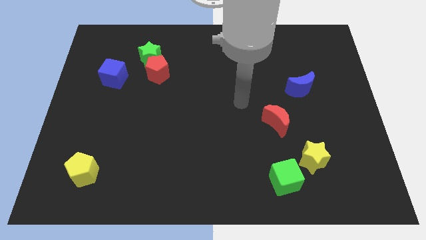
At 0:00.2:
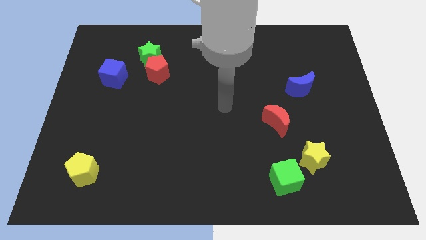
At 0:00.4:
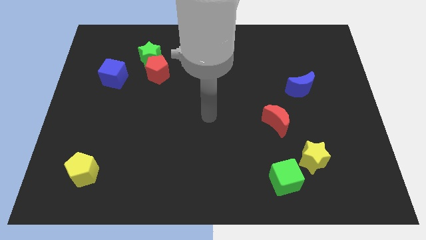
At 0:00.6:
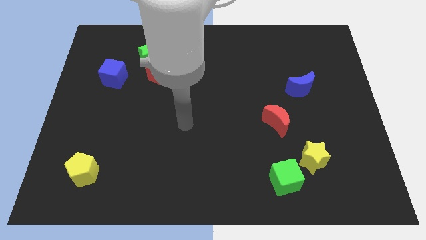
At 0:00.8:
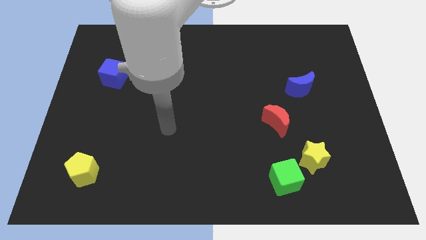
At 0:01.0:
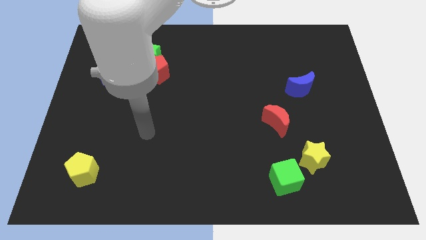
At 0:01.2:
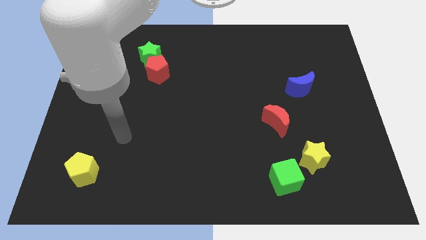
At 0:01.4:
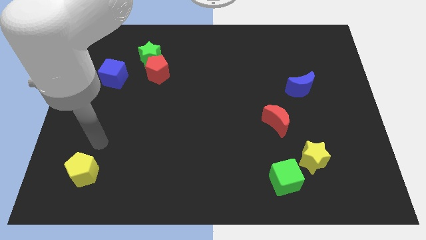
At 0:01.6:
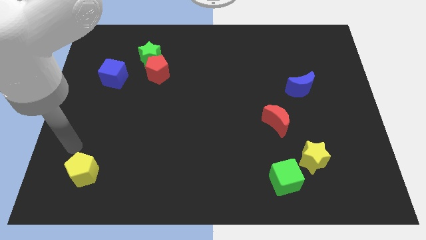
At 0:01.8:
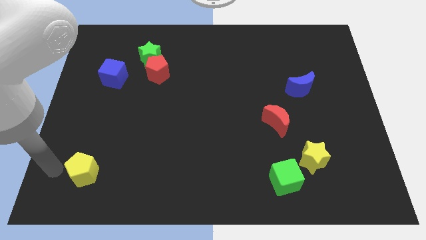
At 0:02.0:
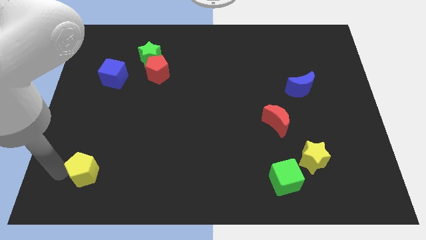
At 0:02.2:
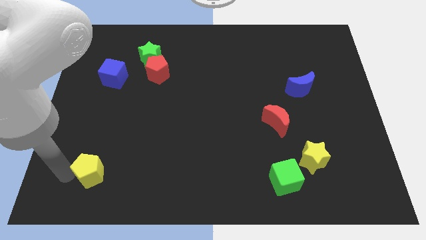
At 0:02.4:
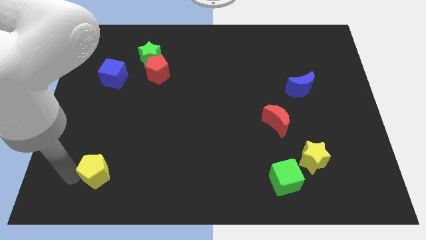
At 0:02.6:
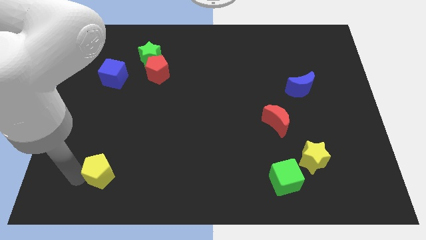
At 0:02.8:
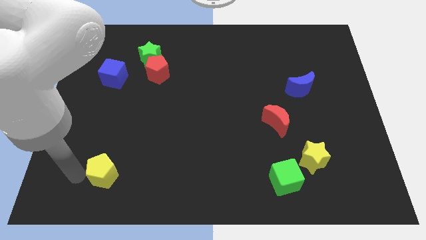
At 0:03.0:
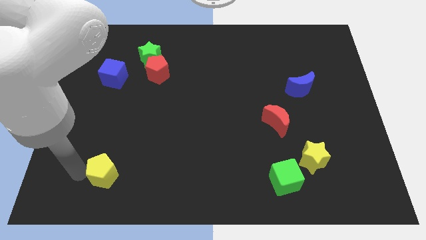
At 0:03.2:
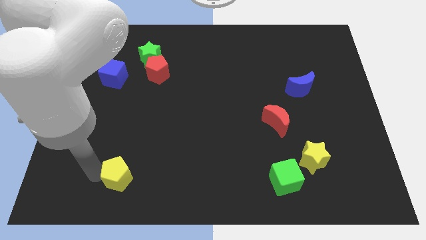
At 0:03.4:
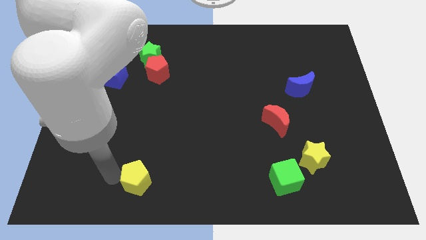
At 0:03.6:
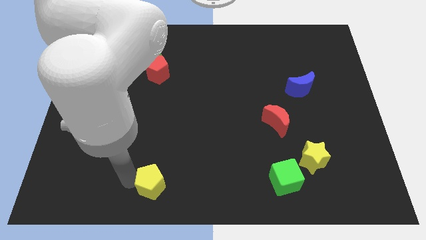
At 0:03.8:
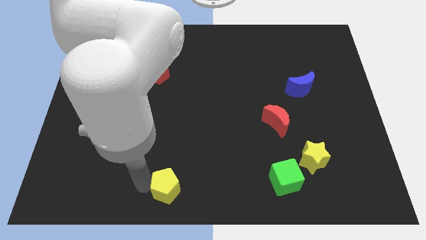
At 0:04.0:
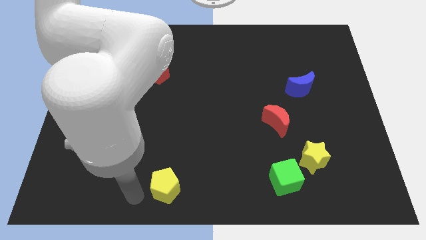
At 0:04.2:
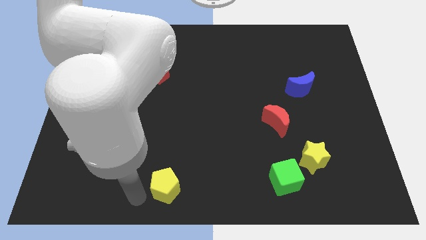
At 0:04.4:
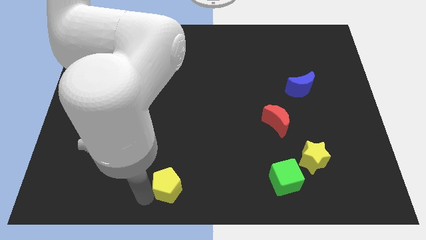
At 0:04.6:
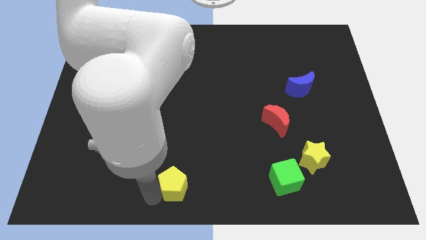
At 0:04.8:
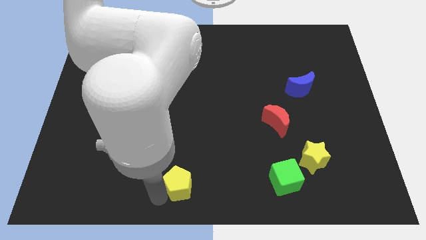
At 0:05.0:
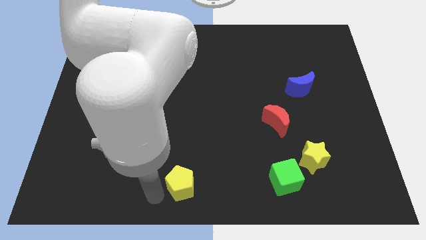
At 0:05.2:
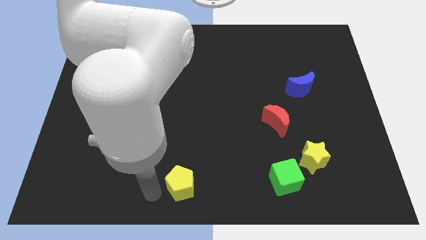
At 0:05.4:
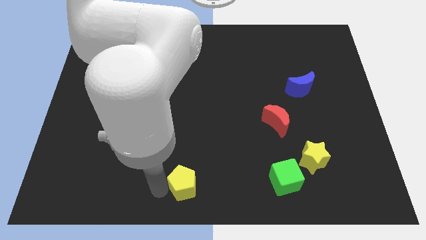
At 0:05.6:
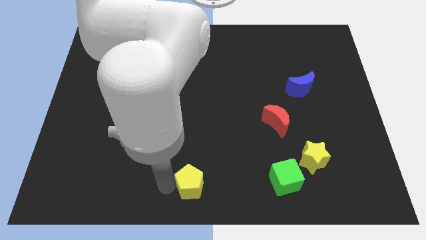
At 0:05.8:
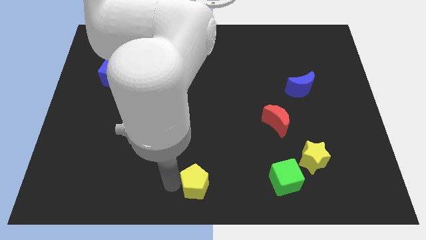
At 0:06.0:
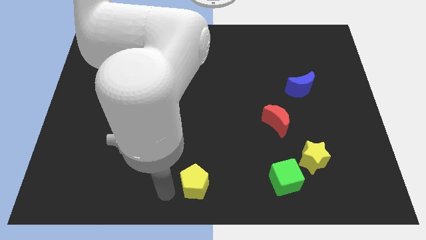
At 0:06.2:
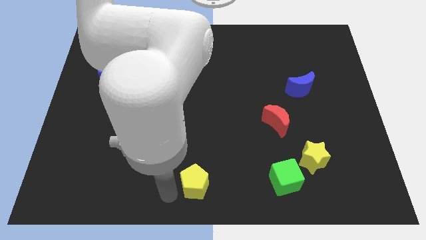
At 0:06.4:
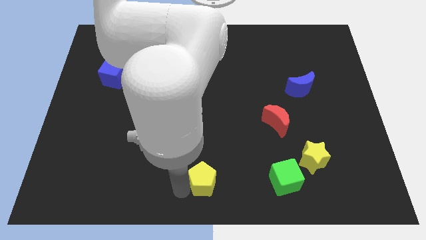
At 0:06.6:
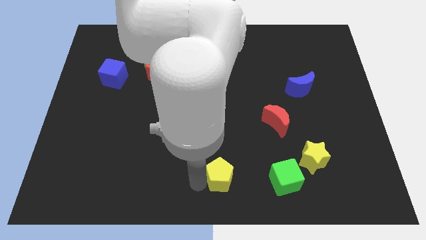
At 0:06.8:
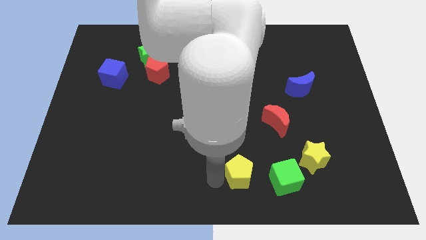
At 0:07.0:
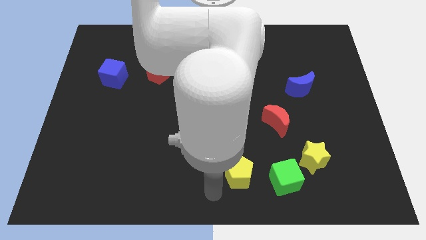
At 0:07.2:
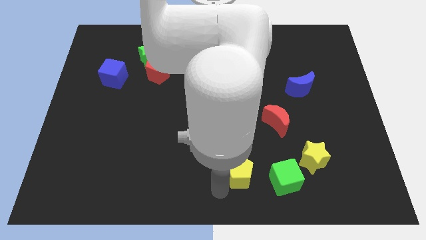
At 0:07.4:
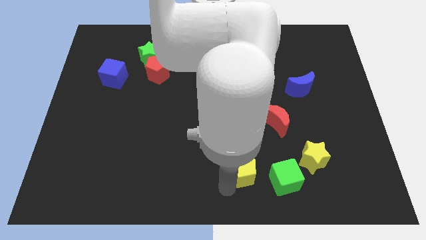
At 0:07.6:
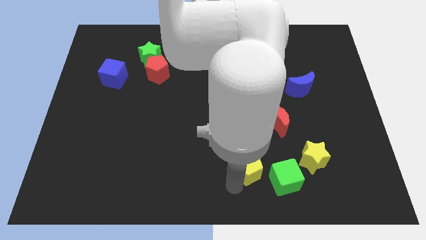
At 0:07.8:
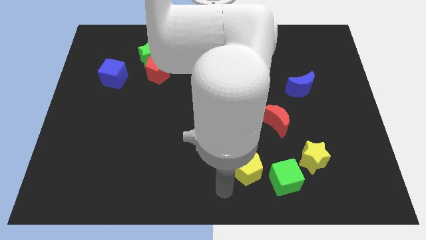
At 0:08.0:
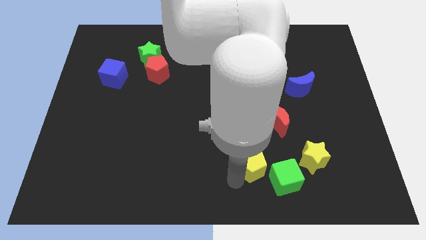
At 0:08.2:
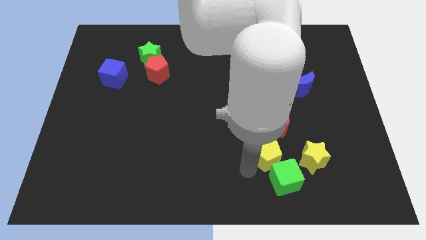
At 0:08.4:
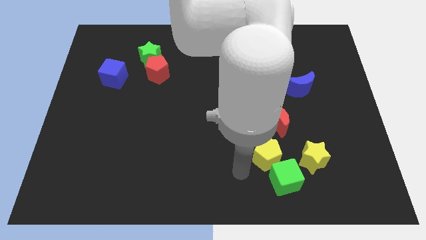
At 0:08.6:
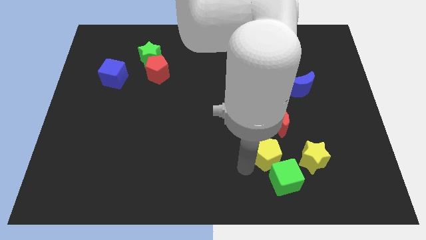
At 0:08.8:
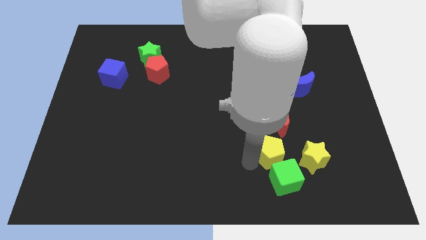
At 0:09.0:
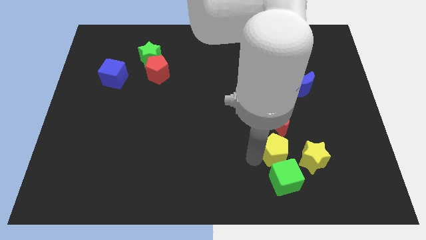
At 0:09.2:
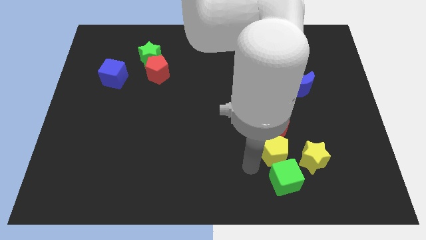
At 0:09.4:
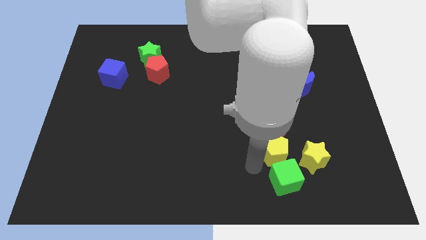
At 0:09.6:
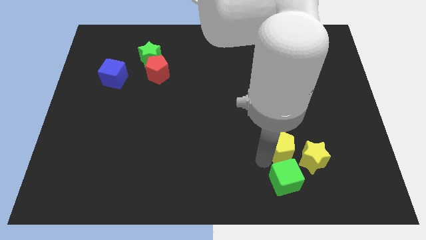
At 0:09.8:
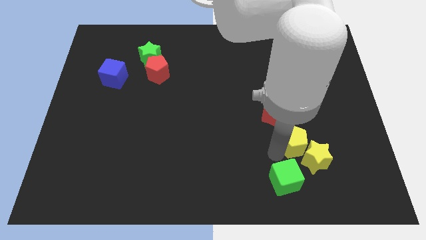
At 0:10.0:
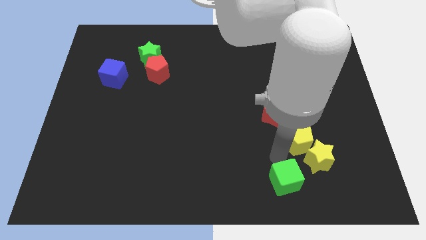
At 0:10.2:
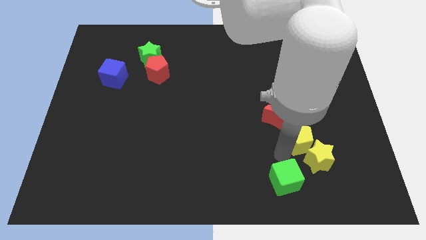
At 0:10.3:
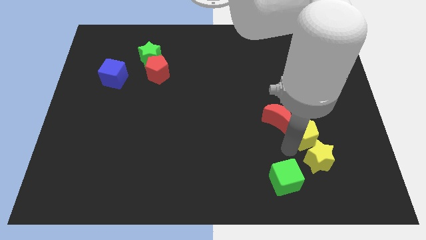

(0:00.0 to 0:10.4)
push the yellow pentagon right of the red moon

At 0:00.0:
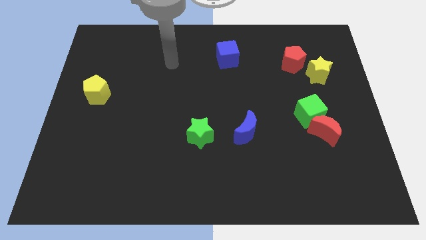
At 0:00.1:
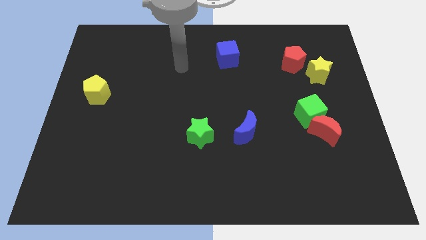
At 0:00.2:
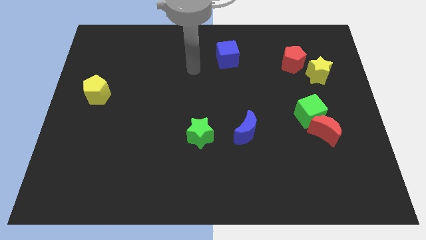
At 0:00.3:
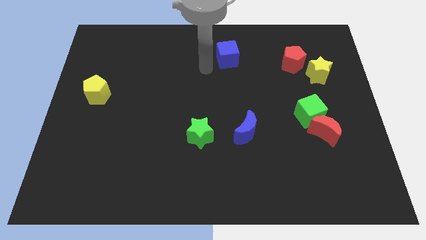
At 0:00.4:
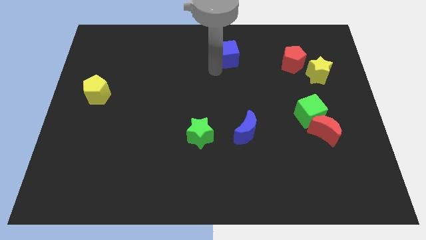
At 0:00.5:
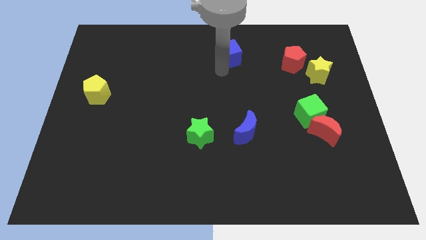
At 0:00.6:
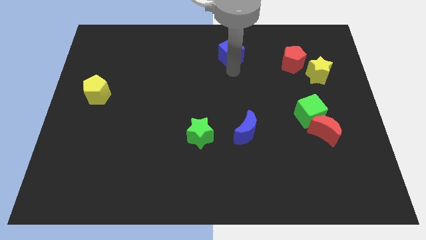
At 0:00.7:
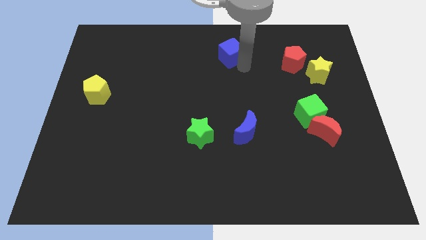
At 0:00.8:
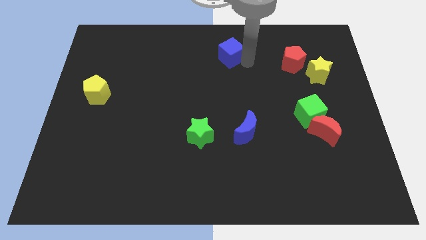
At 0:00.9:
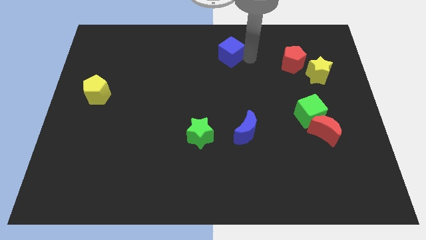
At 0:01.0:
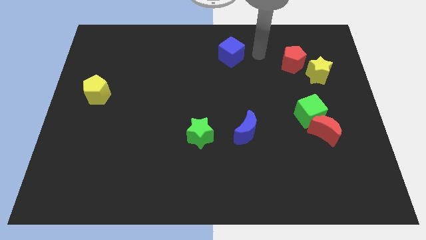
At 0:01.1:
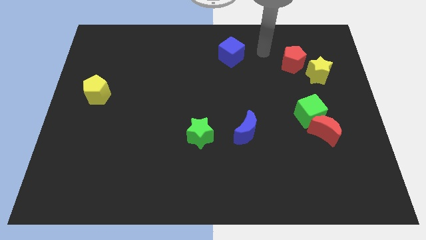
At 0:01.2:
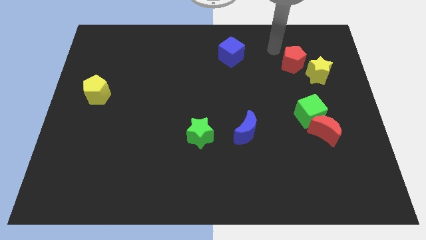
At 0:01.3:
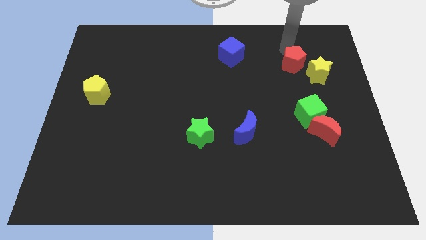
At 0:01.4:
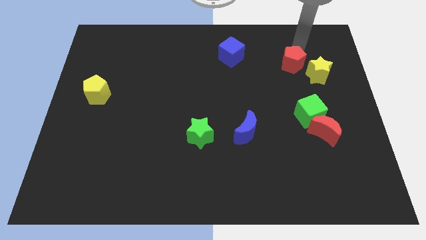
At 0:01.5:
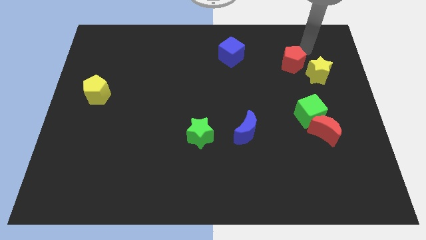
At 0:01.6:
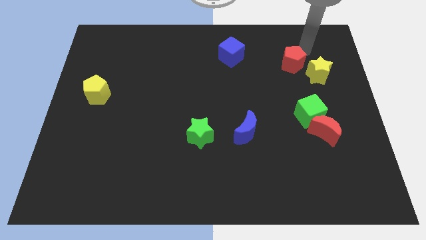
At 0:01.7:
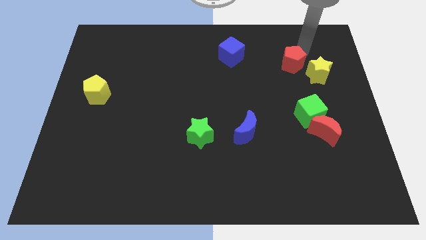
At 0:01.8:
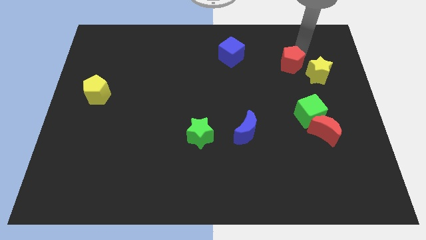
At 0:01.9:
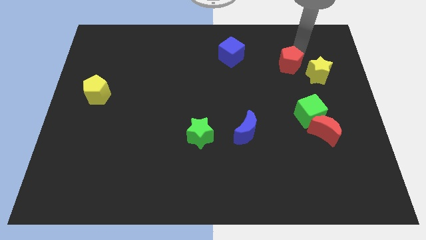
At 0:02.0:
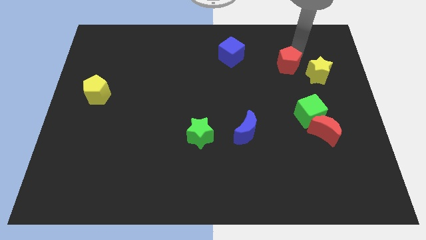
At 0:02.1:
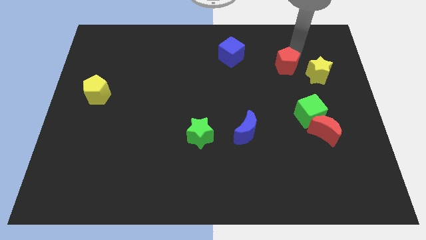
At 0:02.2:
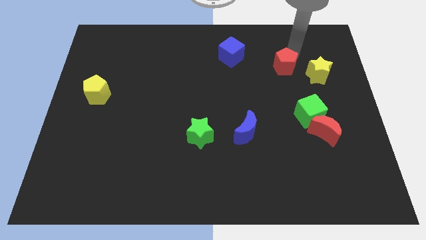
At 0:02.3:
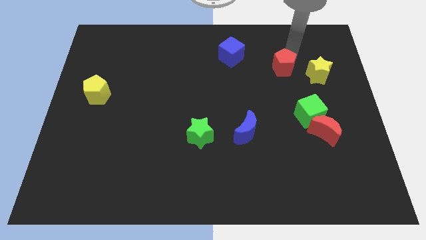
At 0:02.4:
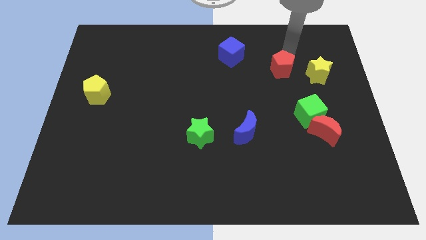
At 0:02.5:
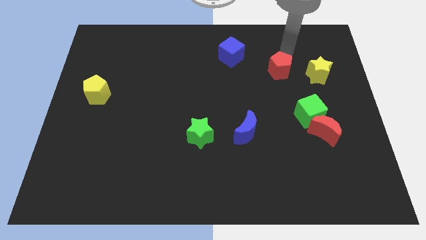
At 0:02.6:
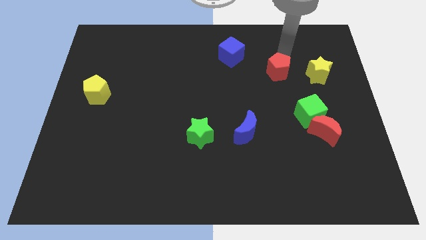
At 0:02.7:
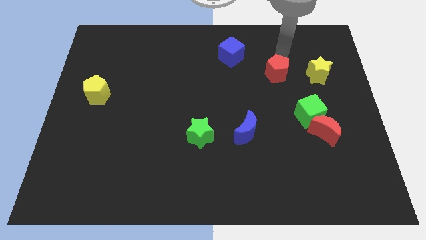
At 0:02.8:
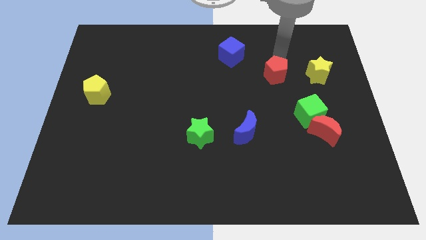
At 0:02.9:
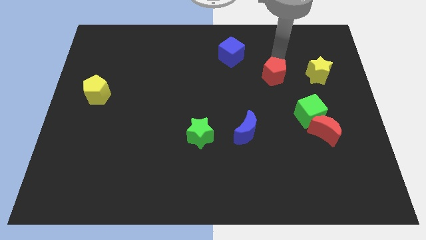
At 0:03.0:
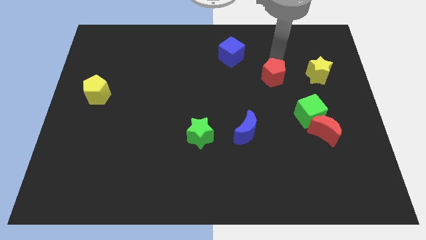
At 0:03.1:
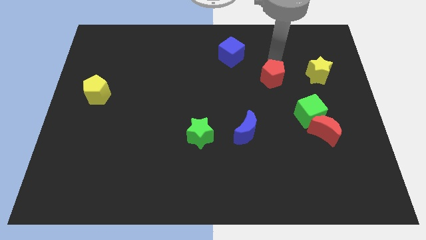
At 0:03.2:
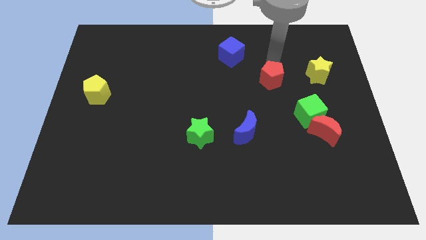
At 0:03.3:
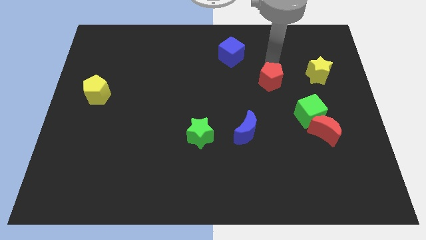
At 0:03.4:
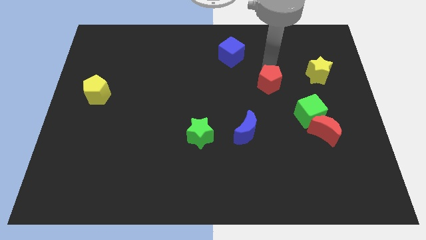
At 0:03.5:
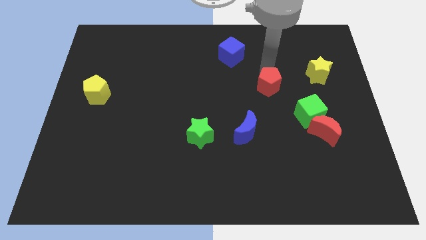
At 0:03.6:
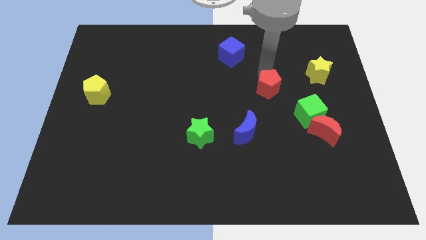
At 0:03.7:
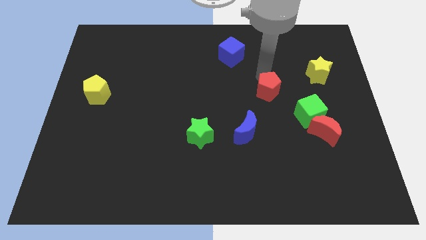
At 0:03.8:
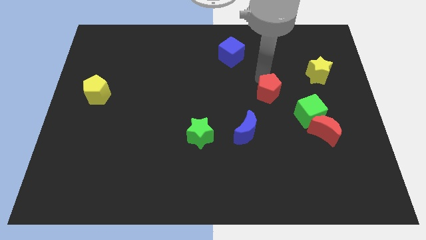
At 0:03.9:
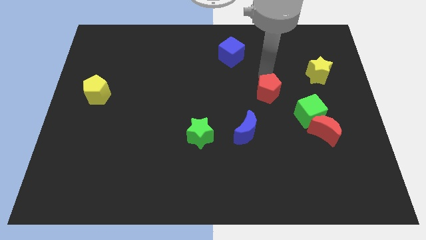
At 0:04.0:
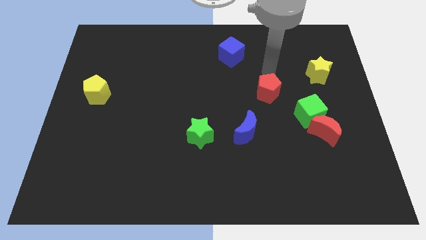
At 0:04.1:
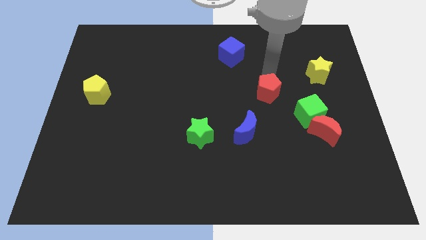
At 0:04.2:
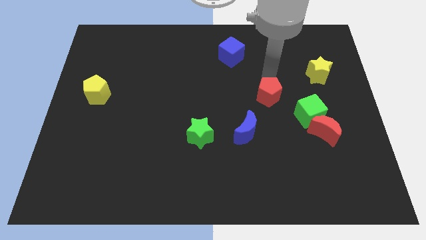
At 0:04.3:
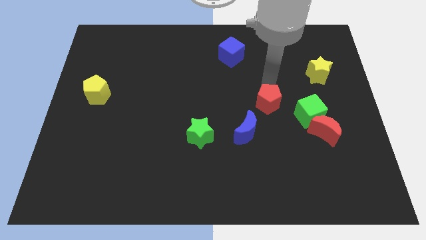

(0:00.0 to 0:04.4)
move the red pentagon just left of the green cube
